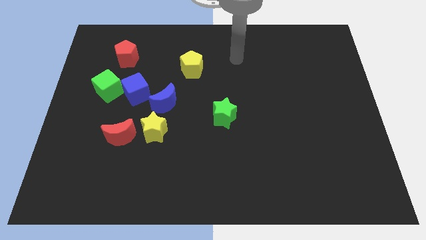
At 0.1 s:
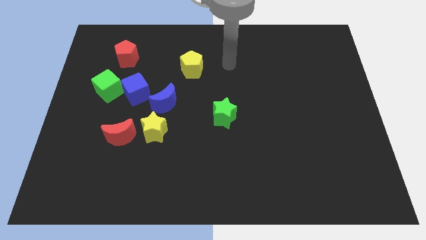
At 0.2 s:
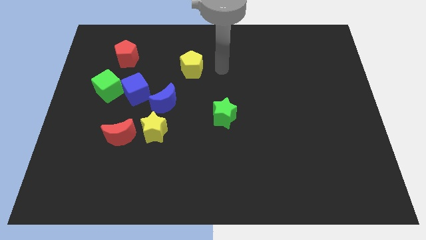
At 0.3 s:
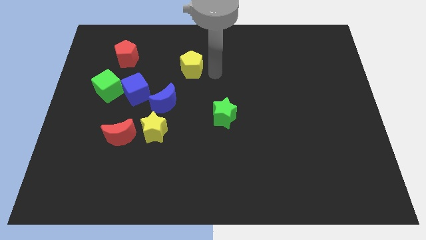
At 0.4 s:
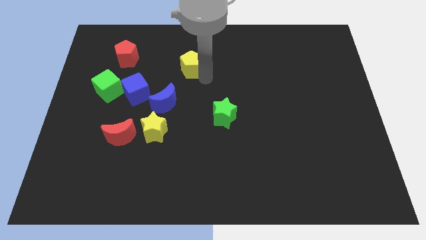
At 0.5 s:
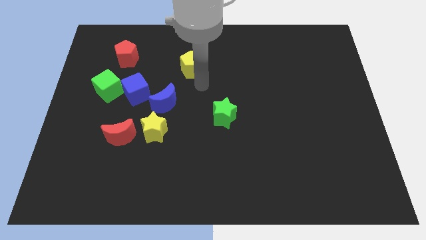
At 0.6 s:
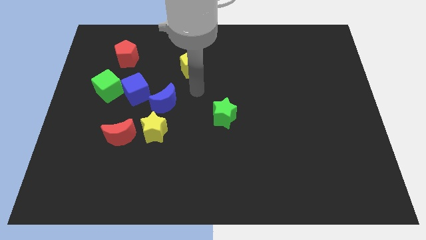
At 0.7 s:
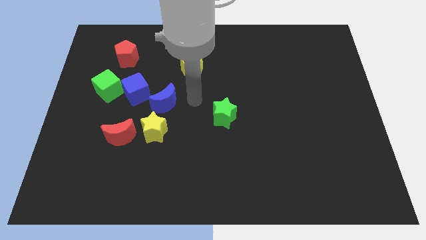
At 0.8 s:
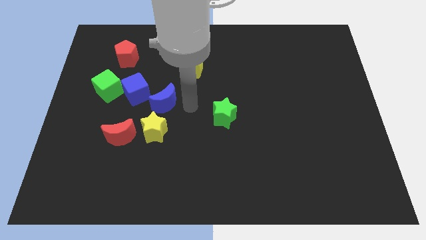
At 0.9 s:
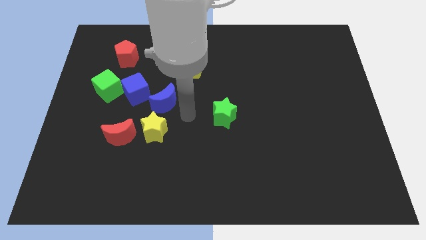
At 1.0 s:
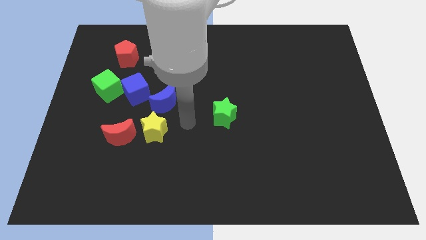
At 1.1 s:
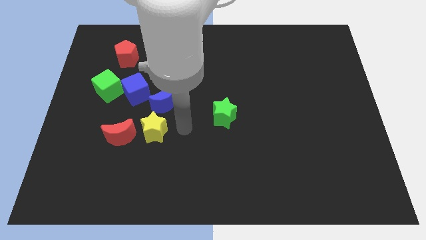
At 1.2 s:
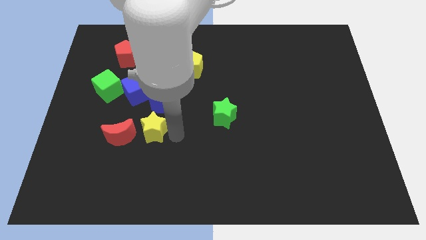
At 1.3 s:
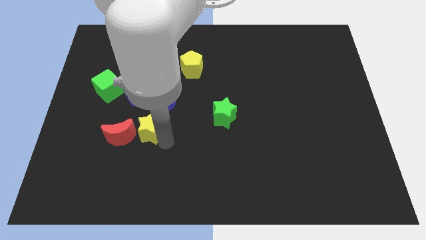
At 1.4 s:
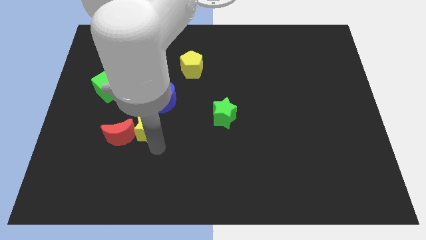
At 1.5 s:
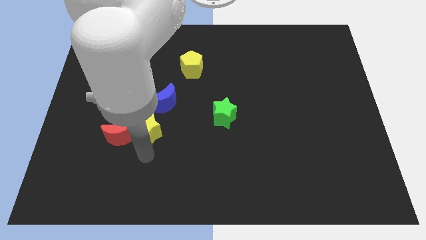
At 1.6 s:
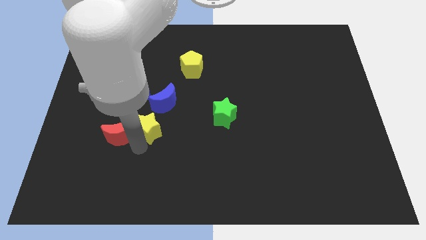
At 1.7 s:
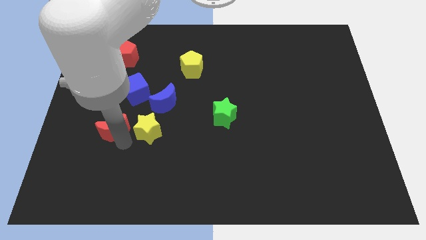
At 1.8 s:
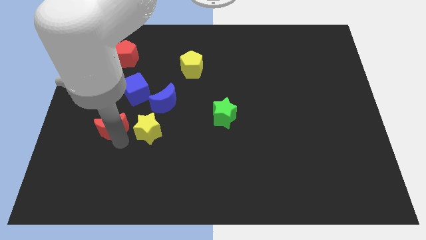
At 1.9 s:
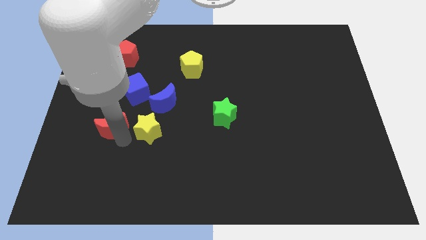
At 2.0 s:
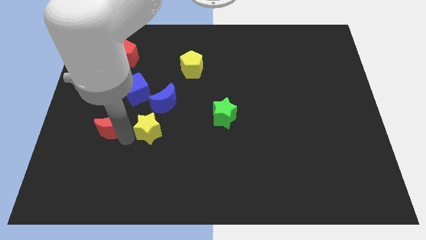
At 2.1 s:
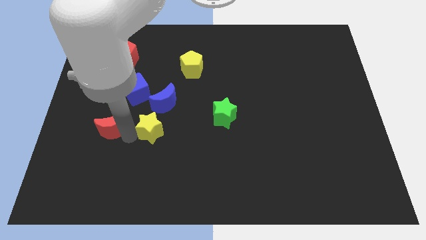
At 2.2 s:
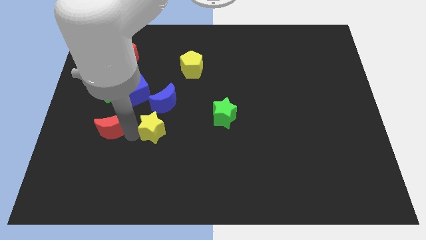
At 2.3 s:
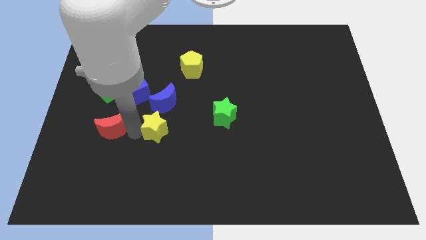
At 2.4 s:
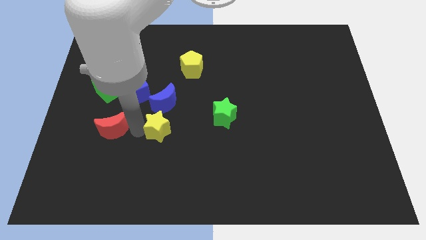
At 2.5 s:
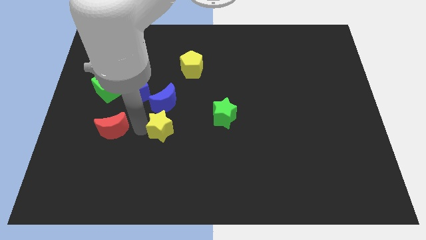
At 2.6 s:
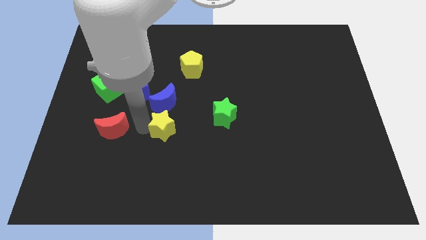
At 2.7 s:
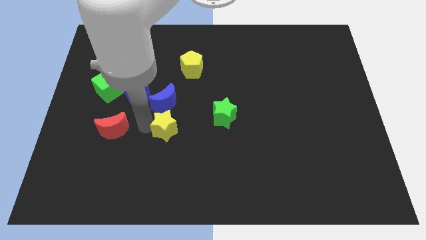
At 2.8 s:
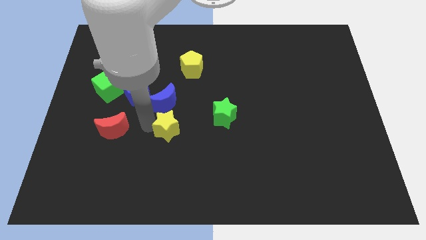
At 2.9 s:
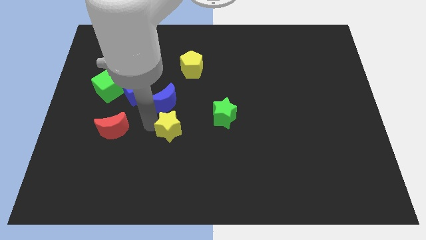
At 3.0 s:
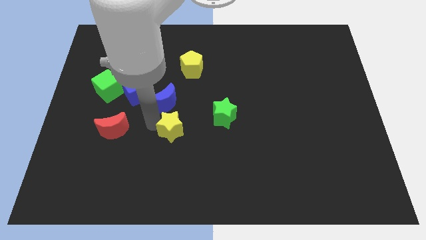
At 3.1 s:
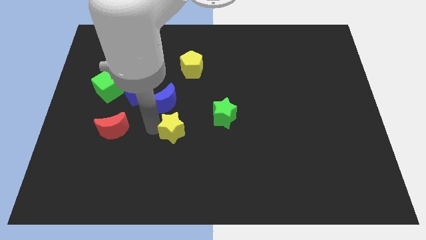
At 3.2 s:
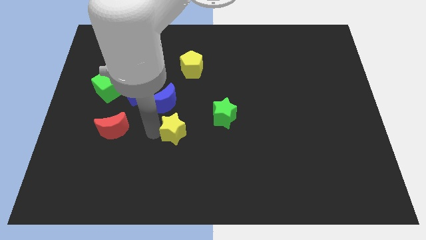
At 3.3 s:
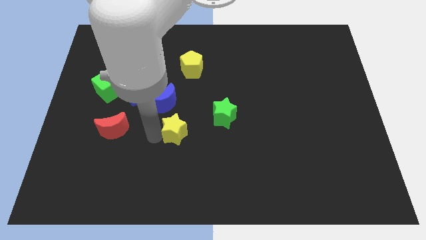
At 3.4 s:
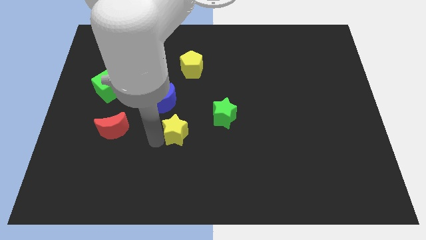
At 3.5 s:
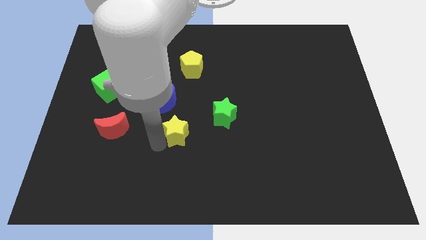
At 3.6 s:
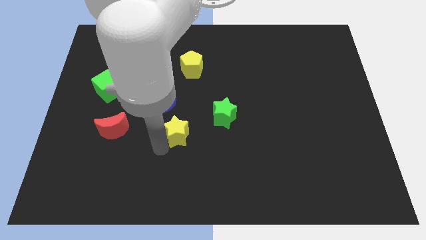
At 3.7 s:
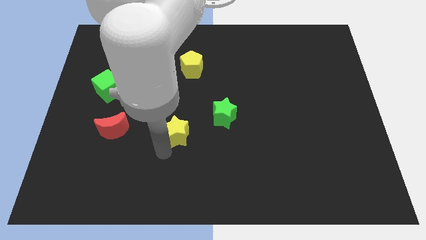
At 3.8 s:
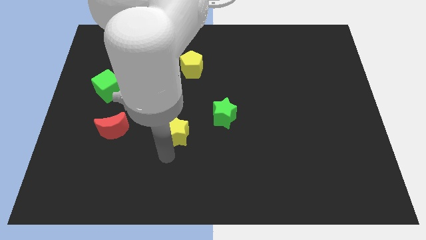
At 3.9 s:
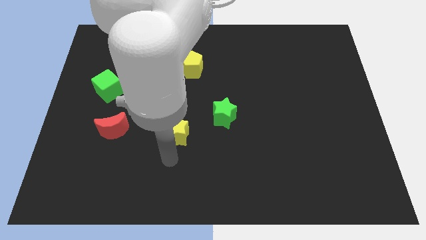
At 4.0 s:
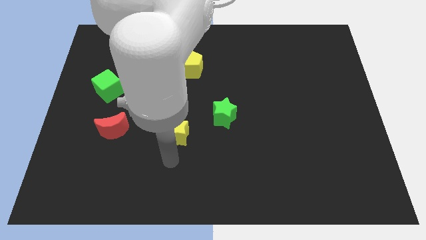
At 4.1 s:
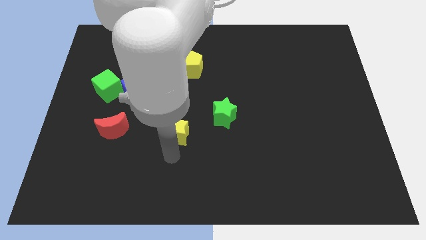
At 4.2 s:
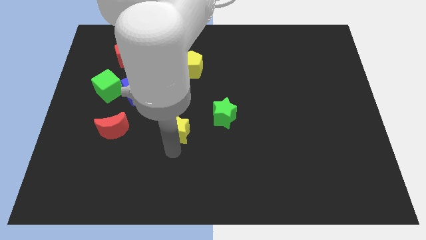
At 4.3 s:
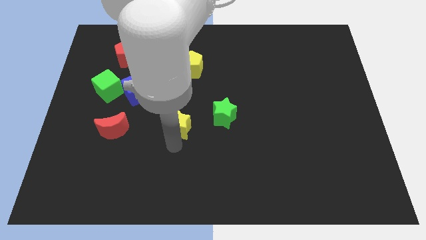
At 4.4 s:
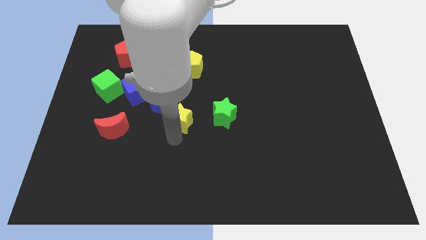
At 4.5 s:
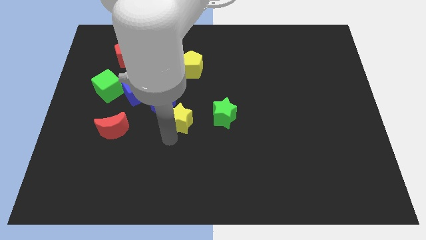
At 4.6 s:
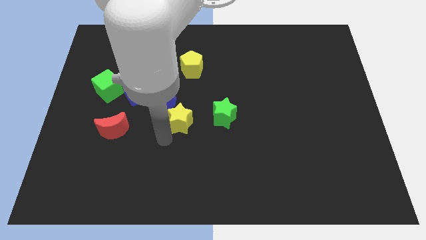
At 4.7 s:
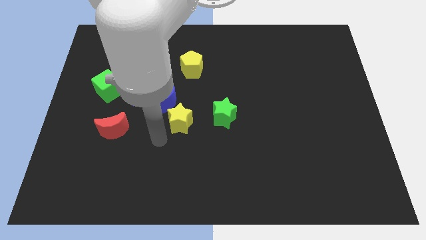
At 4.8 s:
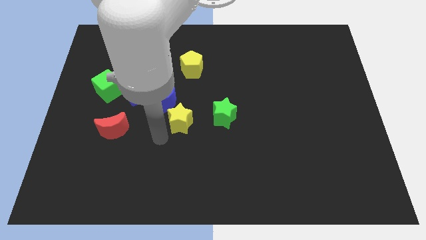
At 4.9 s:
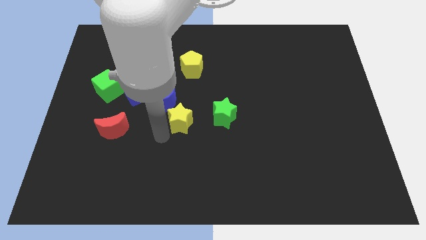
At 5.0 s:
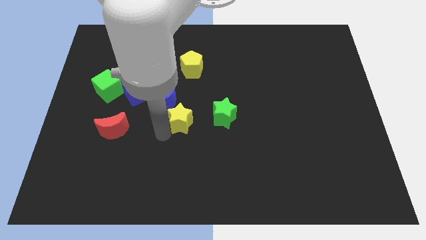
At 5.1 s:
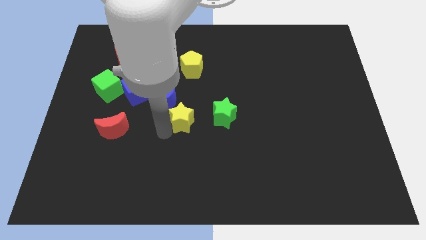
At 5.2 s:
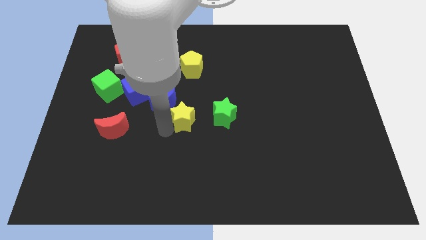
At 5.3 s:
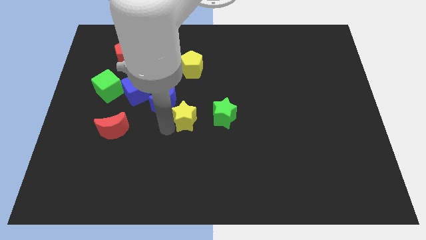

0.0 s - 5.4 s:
slightly slide the yellow star up and then right

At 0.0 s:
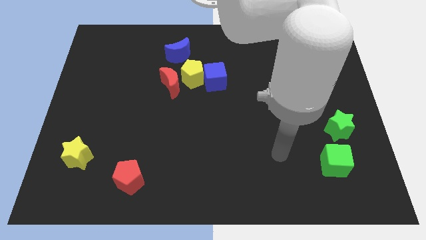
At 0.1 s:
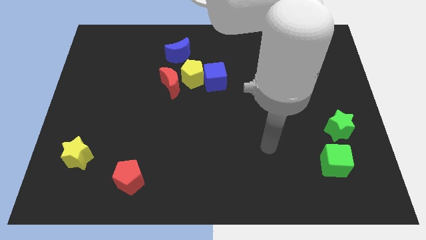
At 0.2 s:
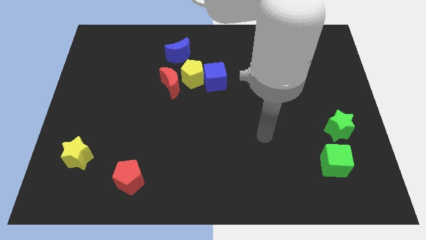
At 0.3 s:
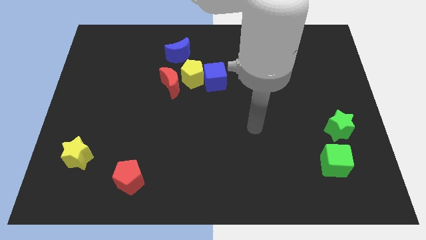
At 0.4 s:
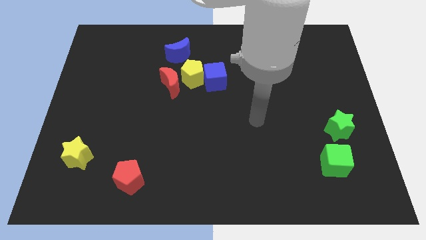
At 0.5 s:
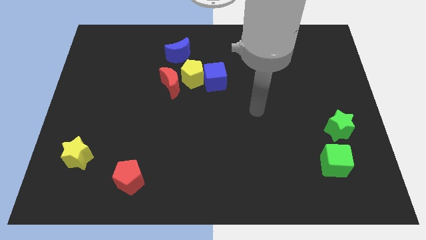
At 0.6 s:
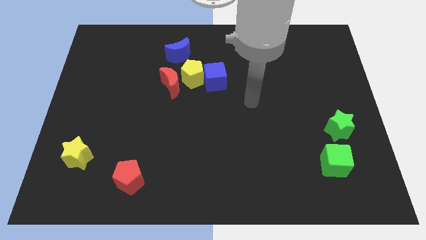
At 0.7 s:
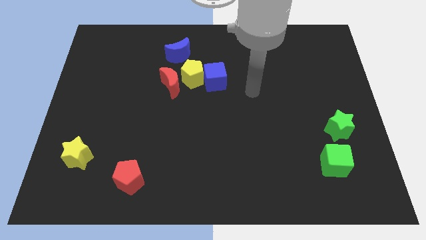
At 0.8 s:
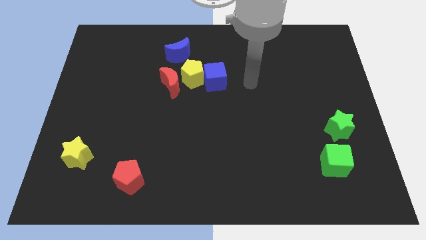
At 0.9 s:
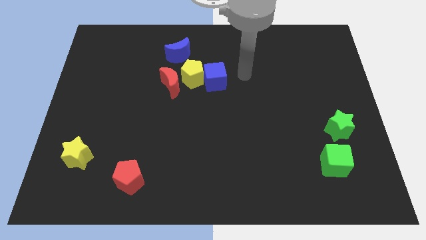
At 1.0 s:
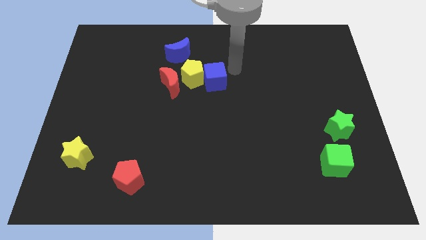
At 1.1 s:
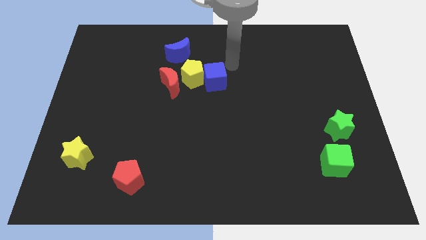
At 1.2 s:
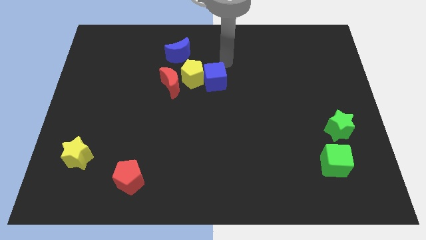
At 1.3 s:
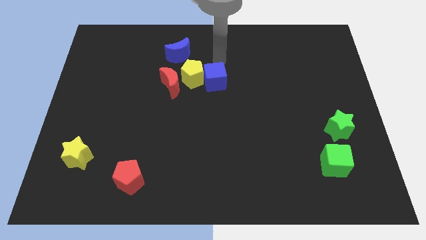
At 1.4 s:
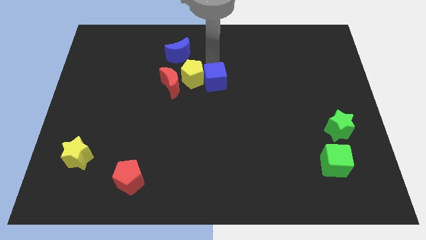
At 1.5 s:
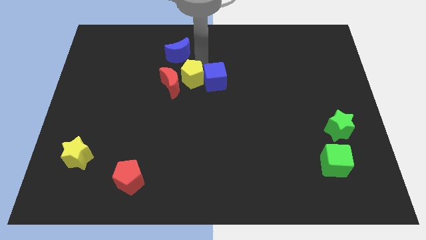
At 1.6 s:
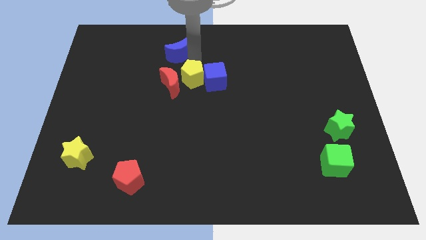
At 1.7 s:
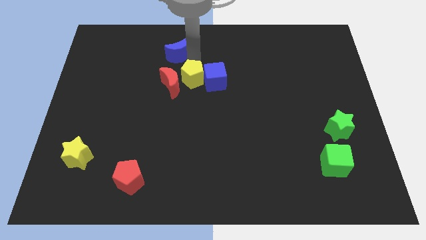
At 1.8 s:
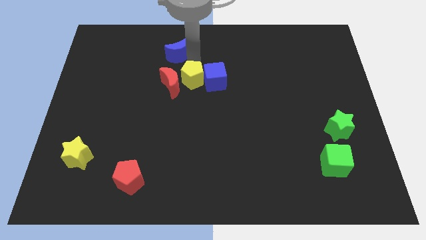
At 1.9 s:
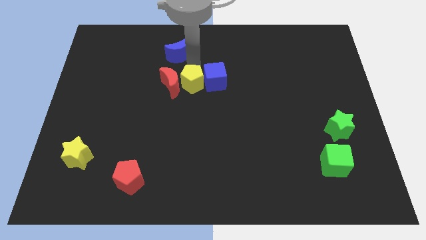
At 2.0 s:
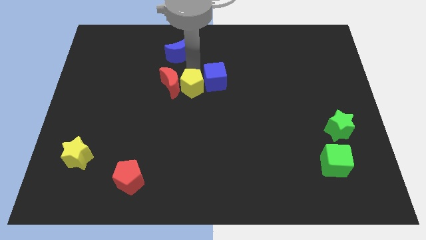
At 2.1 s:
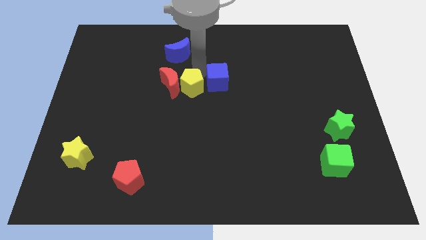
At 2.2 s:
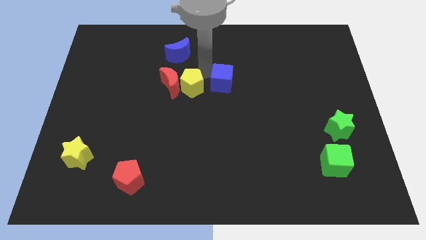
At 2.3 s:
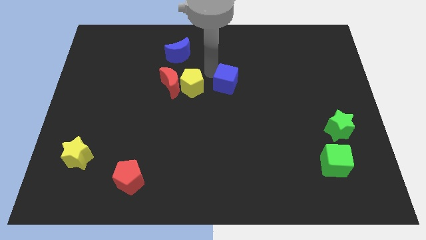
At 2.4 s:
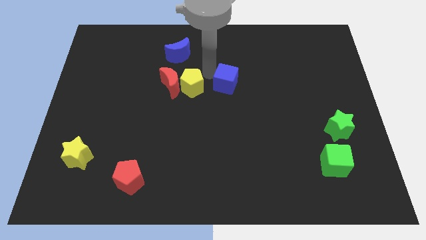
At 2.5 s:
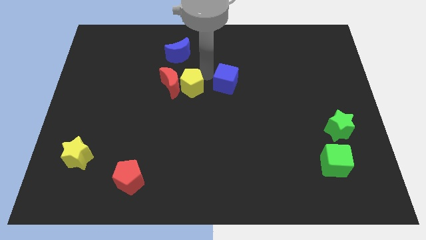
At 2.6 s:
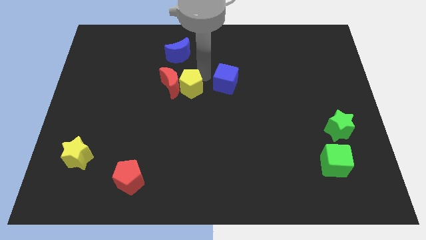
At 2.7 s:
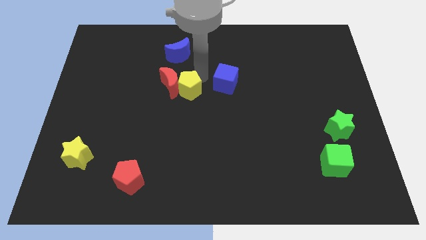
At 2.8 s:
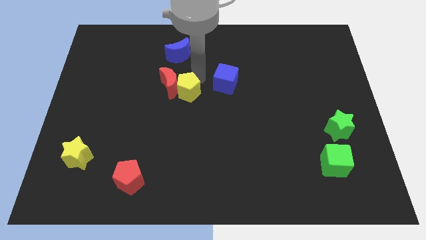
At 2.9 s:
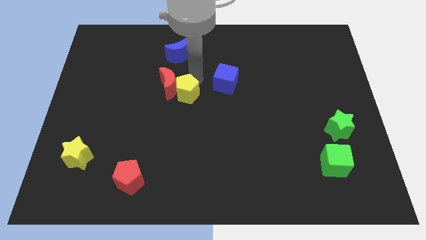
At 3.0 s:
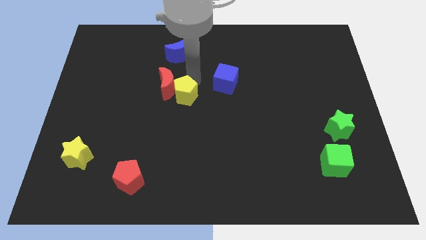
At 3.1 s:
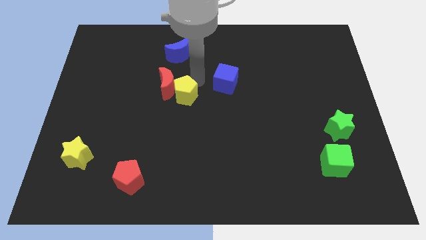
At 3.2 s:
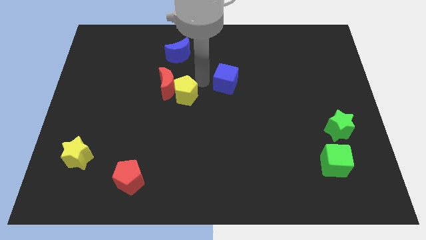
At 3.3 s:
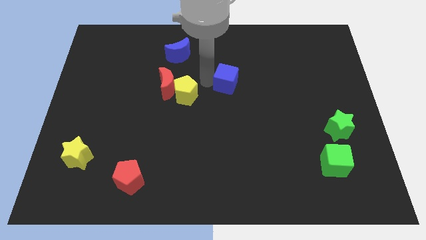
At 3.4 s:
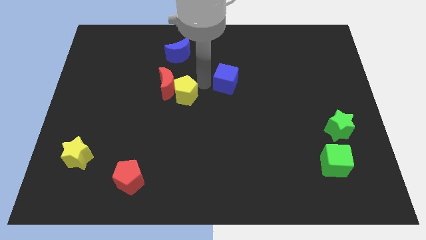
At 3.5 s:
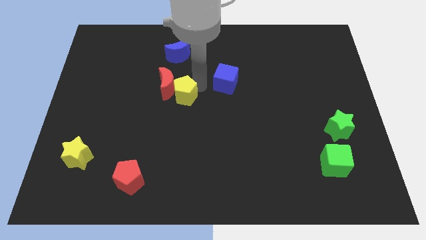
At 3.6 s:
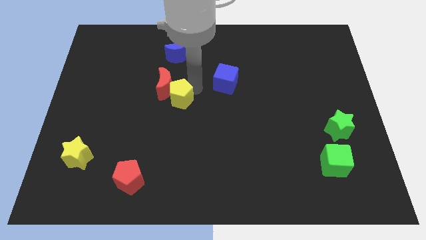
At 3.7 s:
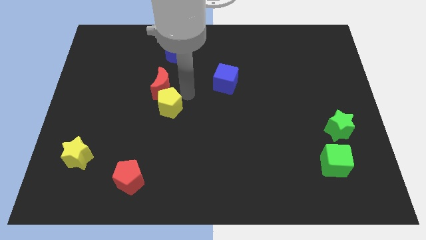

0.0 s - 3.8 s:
slightly push the yellow pentagon diagonally down and left
